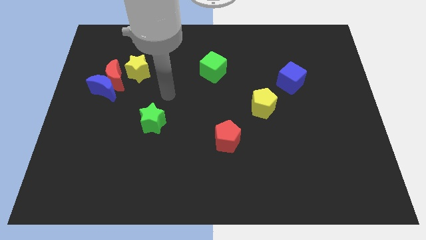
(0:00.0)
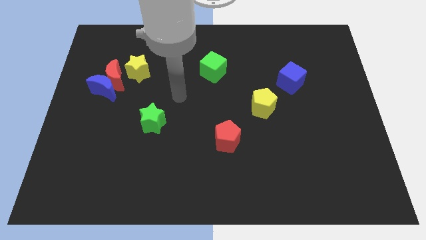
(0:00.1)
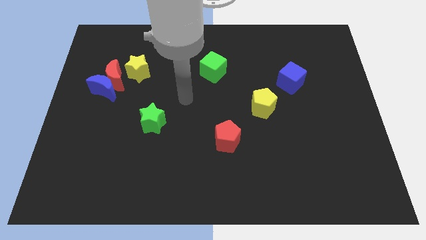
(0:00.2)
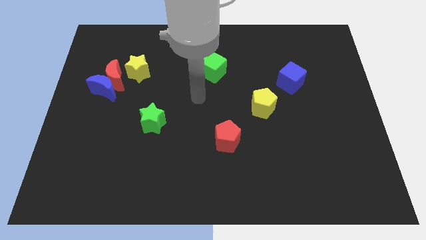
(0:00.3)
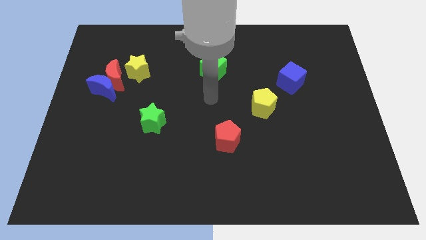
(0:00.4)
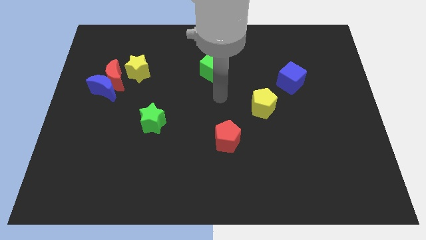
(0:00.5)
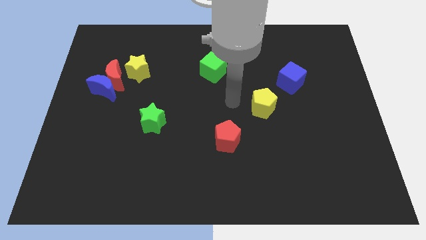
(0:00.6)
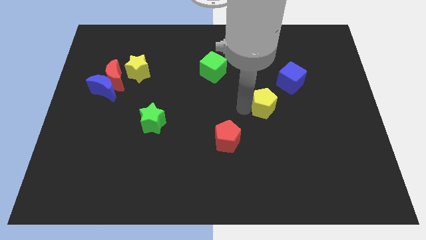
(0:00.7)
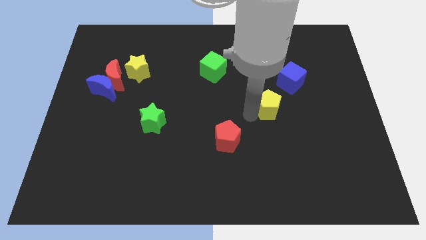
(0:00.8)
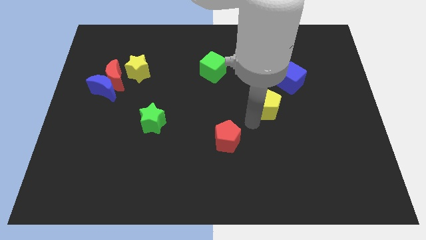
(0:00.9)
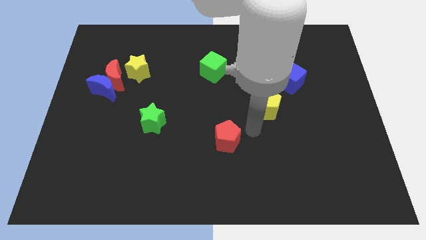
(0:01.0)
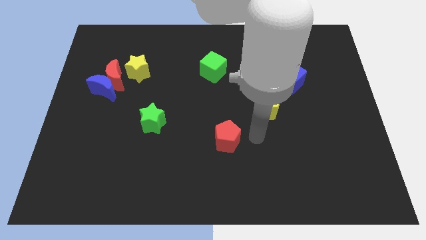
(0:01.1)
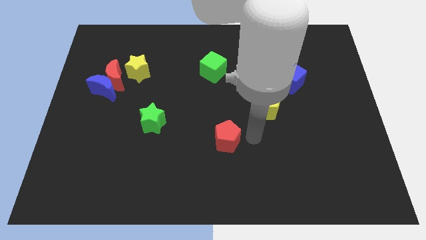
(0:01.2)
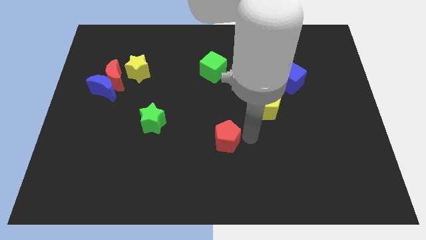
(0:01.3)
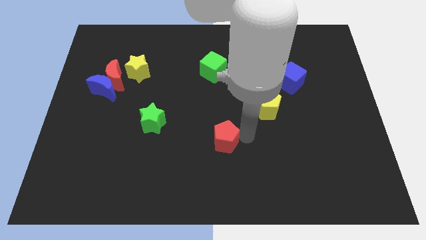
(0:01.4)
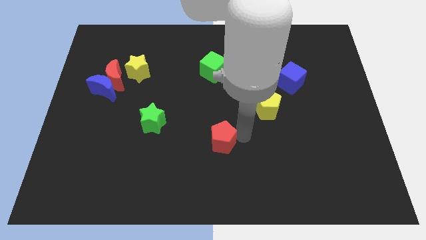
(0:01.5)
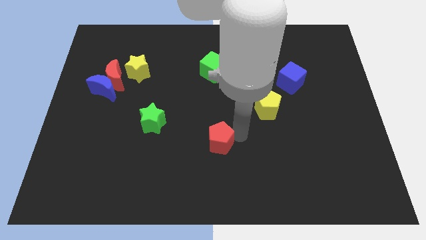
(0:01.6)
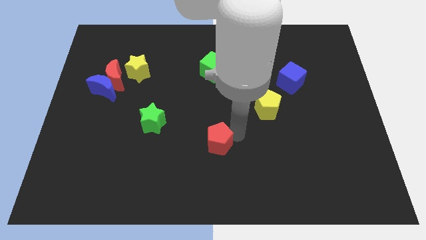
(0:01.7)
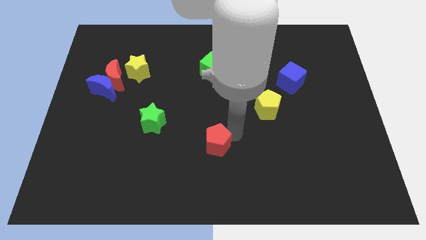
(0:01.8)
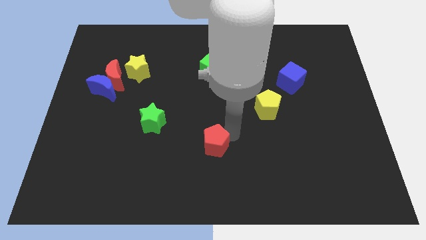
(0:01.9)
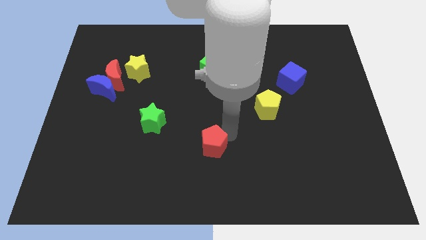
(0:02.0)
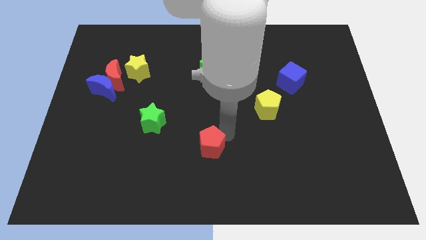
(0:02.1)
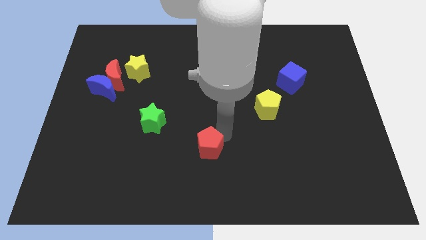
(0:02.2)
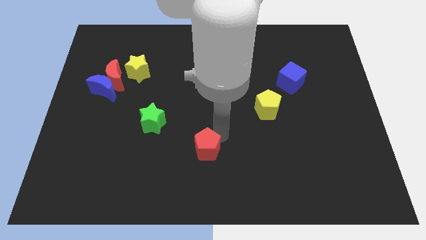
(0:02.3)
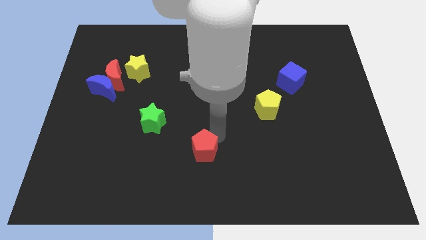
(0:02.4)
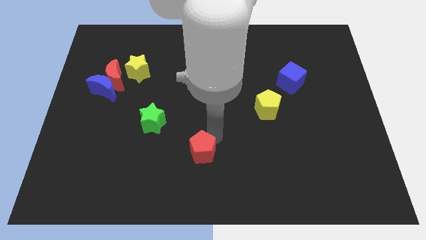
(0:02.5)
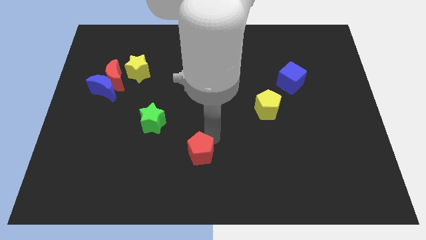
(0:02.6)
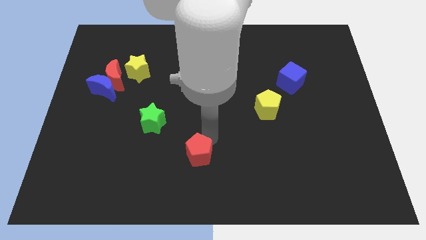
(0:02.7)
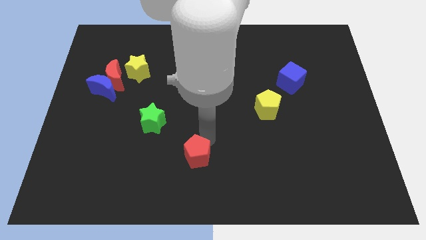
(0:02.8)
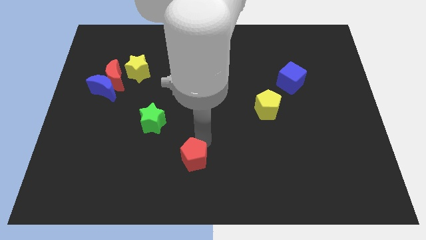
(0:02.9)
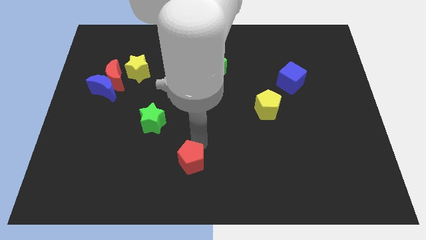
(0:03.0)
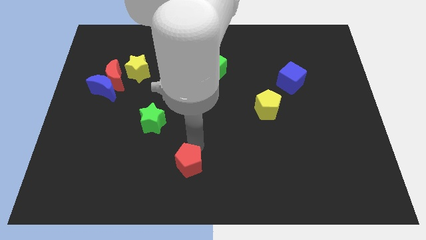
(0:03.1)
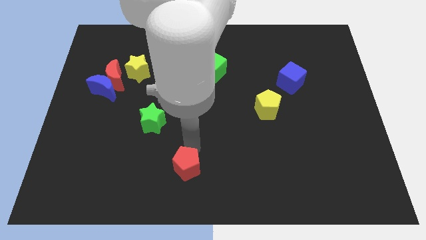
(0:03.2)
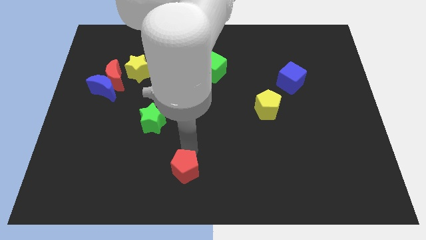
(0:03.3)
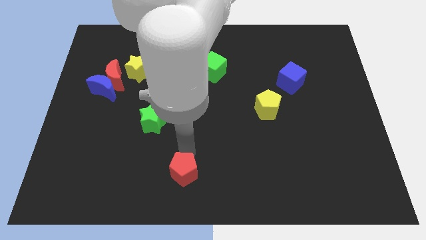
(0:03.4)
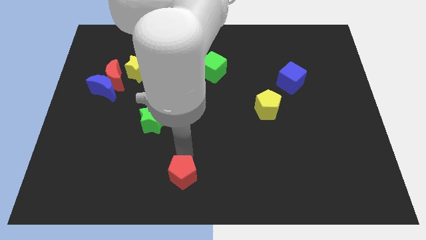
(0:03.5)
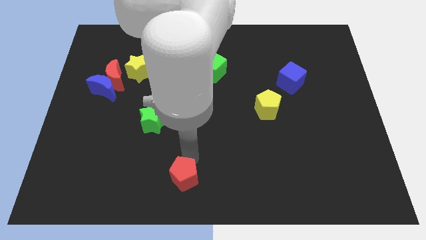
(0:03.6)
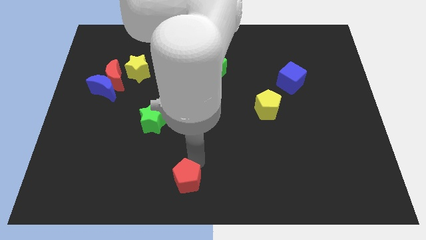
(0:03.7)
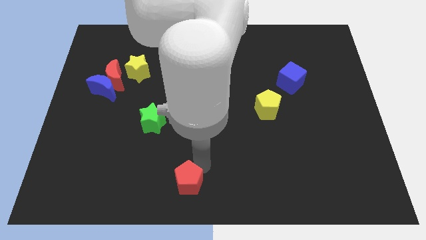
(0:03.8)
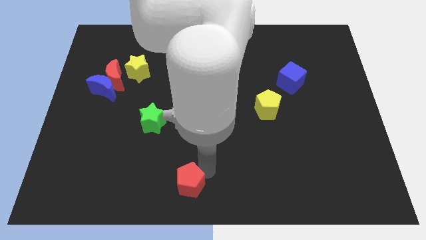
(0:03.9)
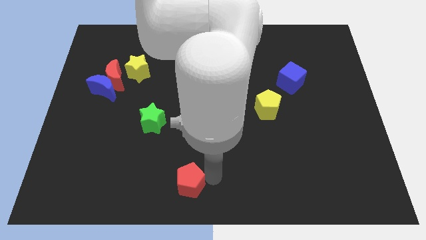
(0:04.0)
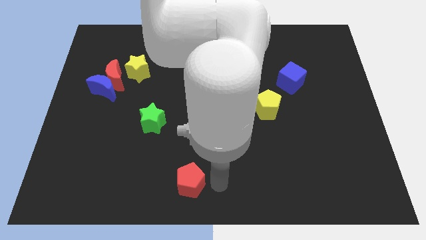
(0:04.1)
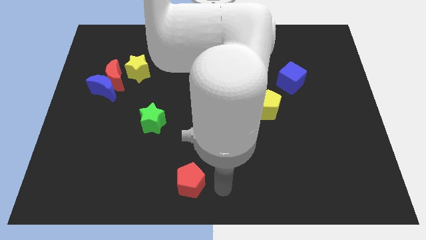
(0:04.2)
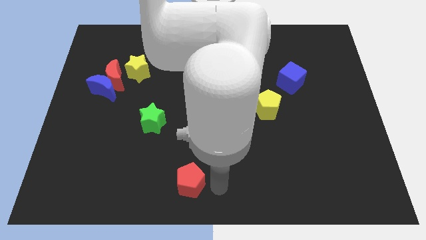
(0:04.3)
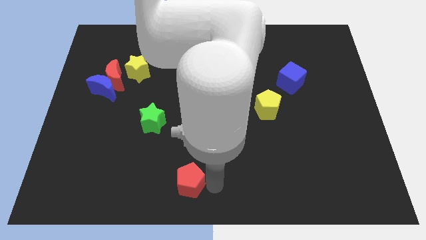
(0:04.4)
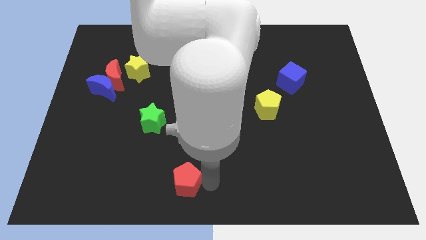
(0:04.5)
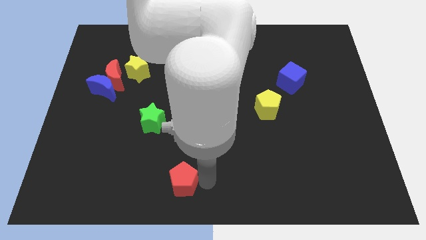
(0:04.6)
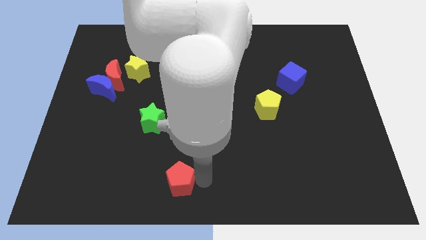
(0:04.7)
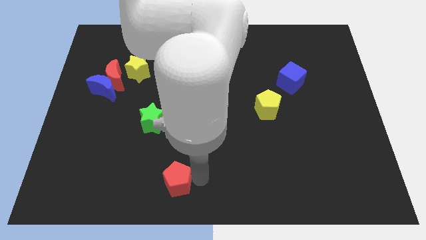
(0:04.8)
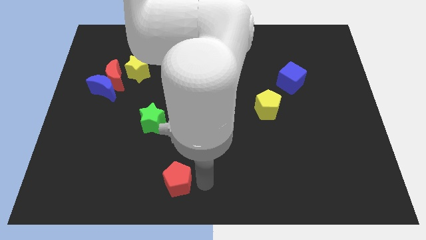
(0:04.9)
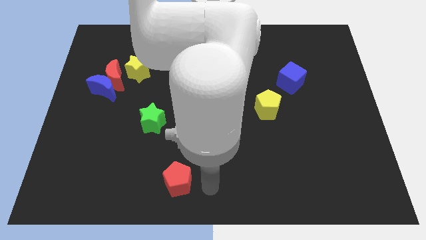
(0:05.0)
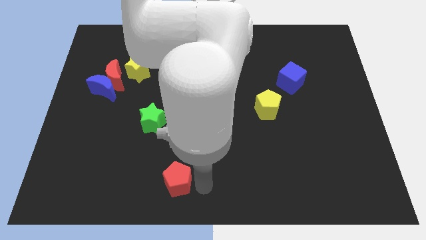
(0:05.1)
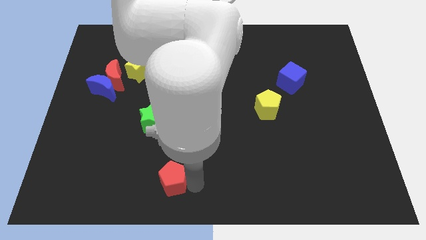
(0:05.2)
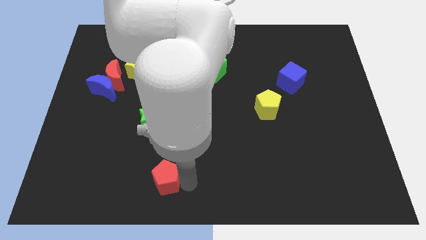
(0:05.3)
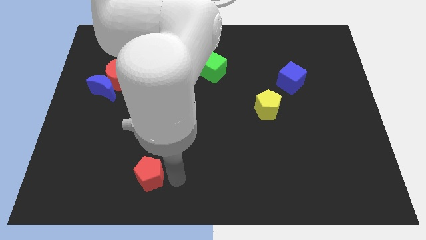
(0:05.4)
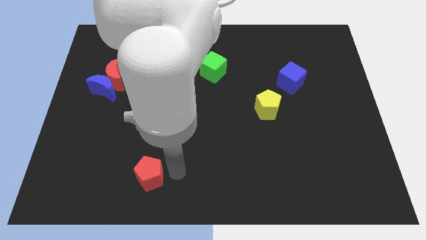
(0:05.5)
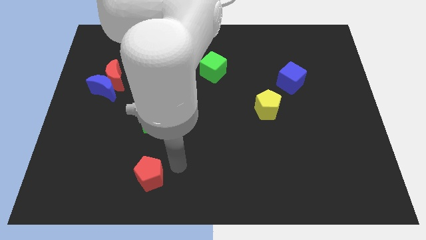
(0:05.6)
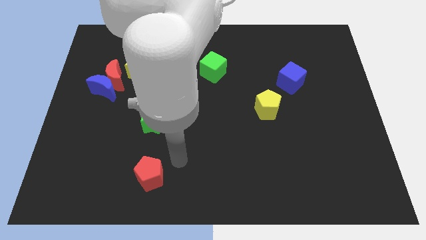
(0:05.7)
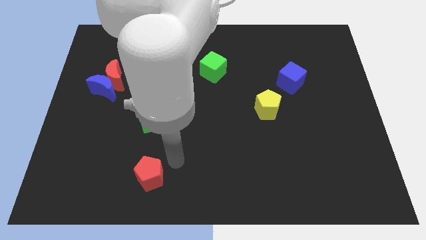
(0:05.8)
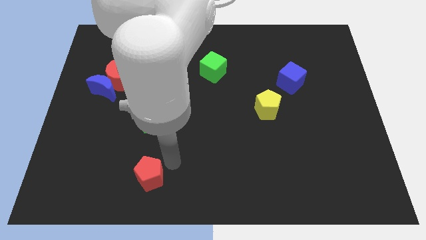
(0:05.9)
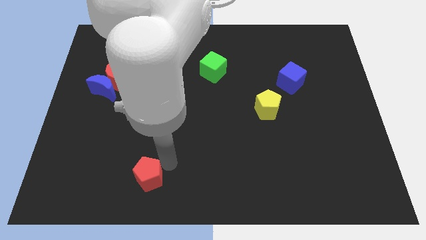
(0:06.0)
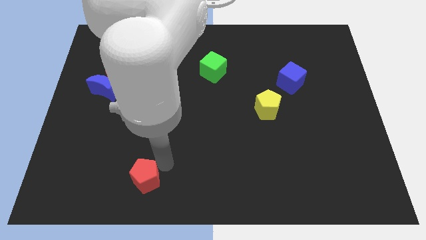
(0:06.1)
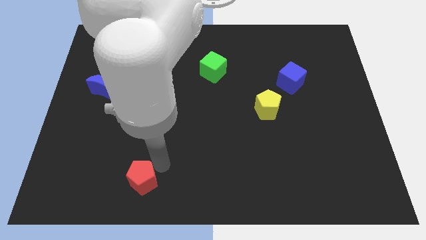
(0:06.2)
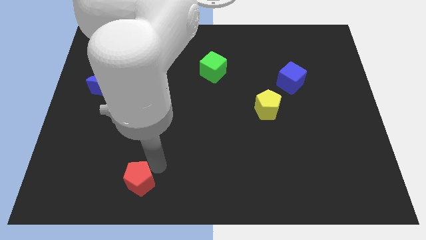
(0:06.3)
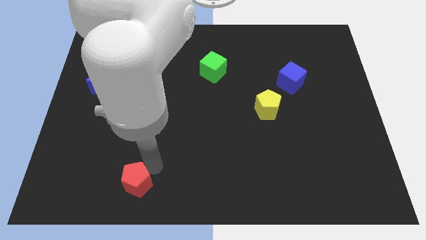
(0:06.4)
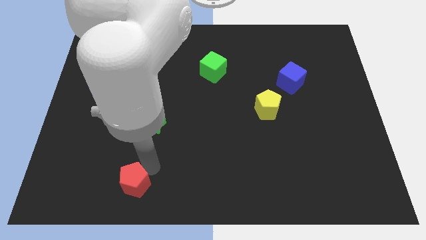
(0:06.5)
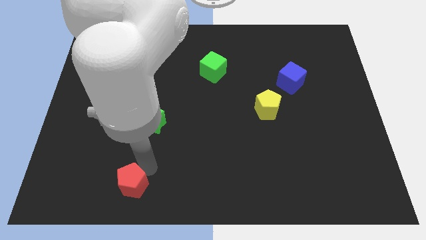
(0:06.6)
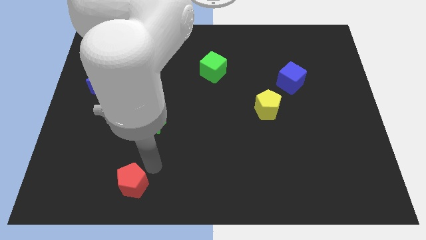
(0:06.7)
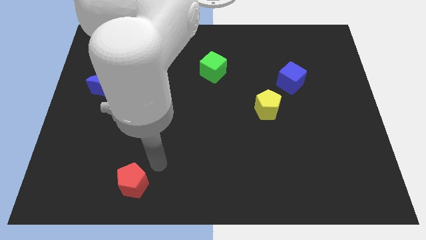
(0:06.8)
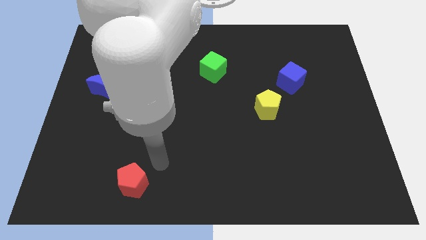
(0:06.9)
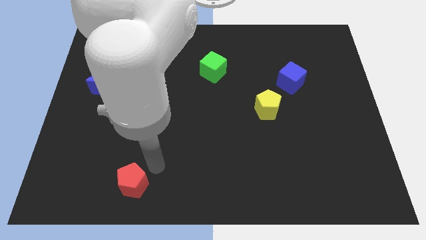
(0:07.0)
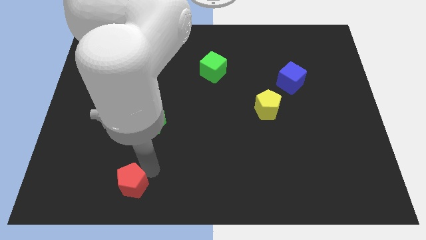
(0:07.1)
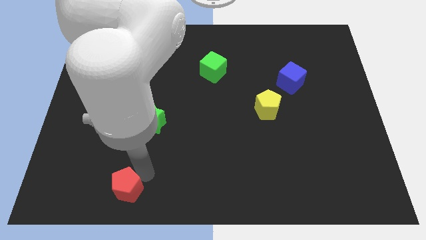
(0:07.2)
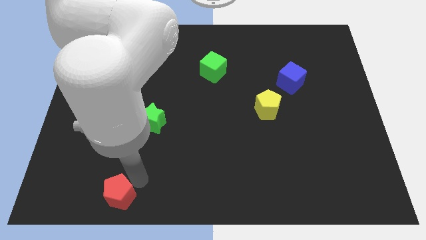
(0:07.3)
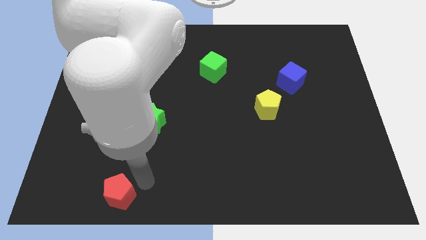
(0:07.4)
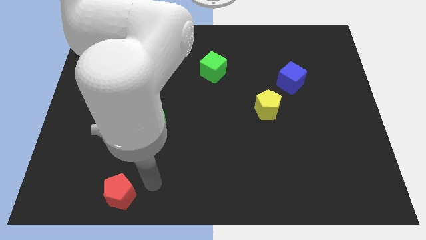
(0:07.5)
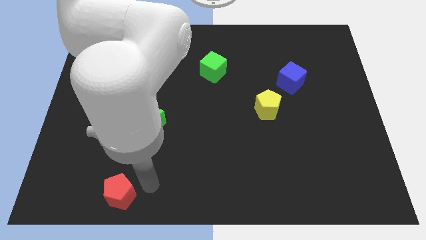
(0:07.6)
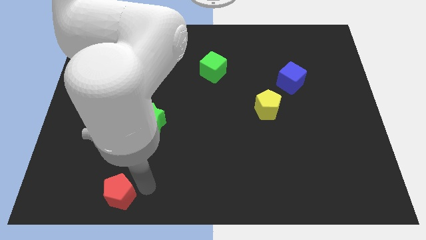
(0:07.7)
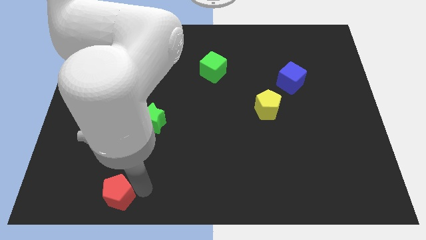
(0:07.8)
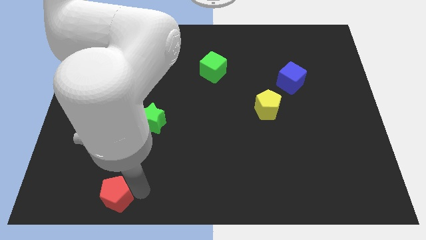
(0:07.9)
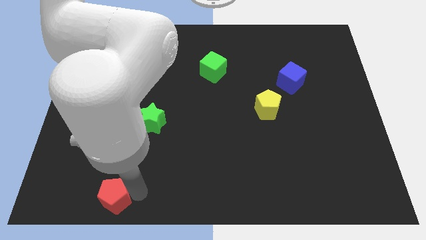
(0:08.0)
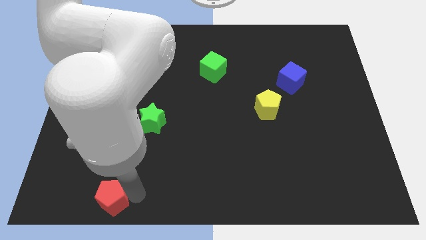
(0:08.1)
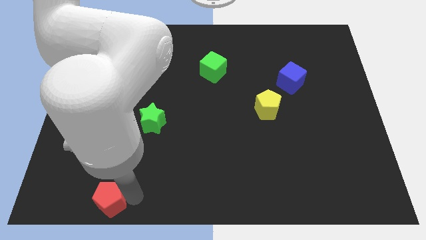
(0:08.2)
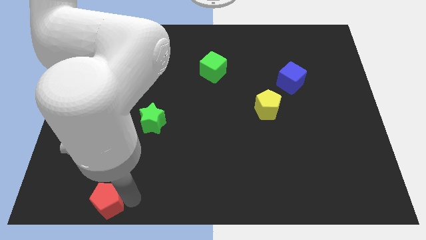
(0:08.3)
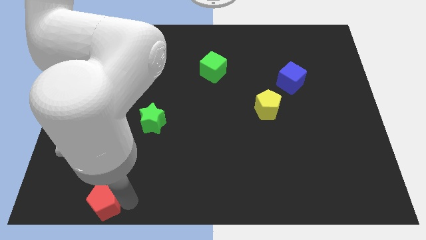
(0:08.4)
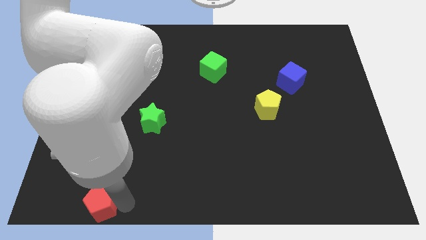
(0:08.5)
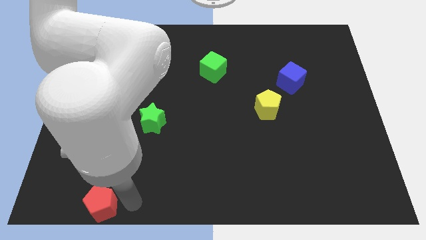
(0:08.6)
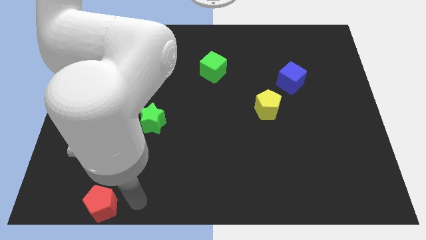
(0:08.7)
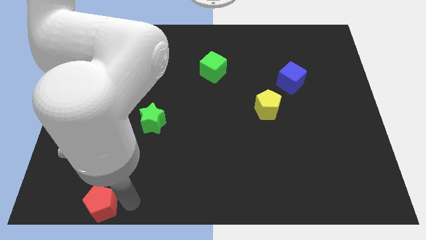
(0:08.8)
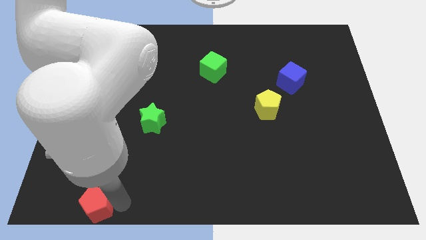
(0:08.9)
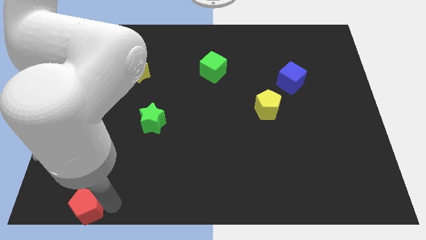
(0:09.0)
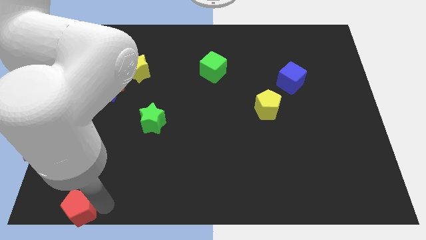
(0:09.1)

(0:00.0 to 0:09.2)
put the red pentagon to the bottom left
